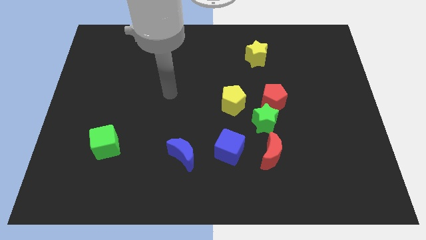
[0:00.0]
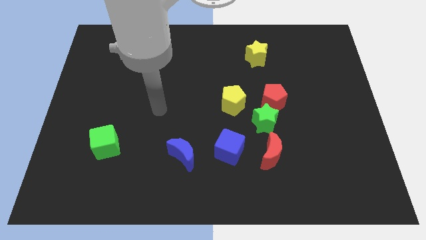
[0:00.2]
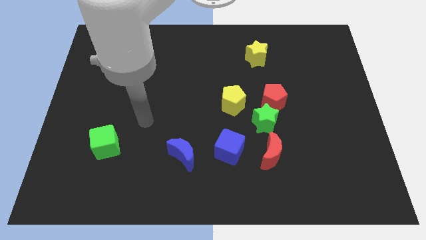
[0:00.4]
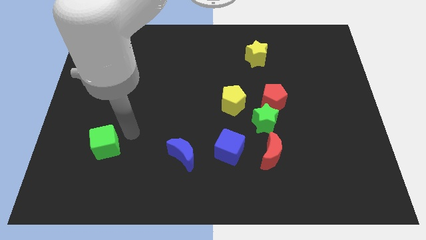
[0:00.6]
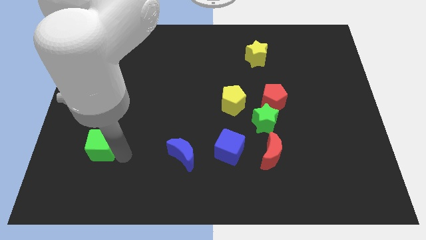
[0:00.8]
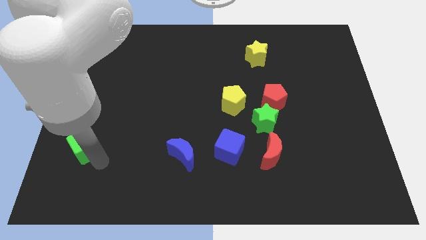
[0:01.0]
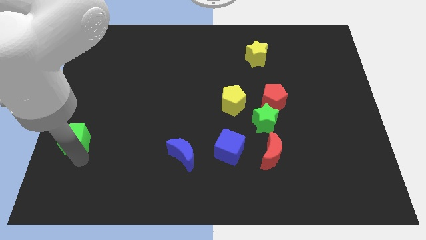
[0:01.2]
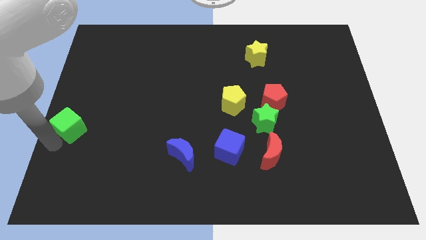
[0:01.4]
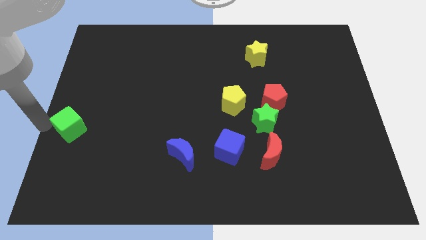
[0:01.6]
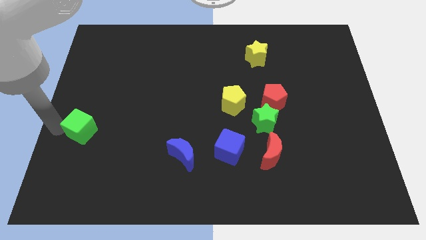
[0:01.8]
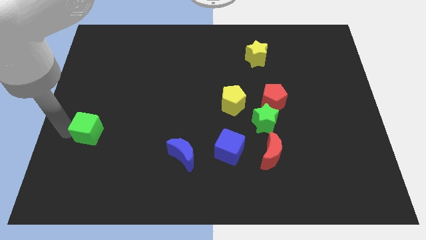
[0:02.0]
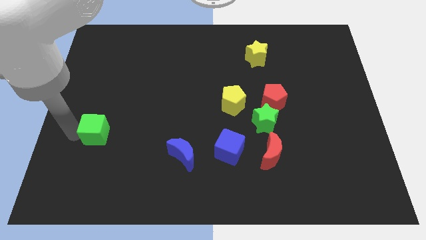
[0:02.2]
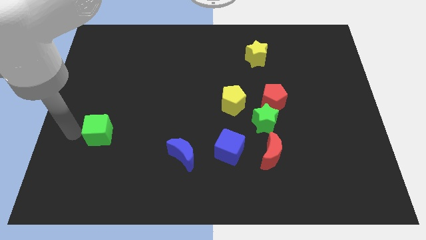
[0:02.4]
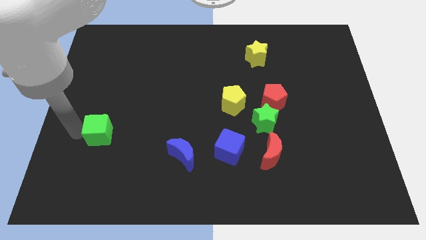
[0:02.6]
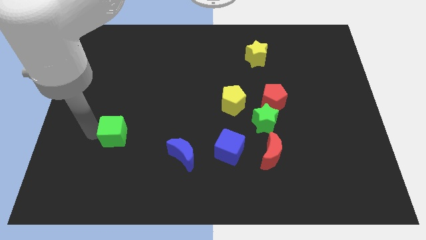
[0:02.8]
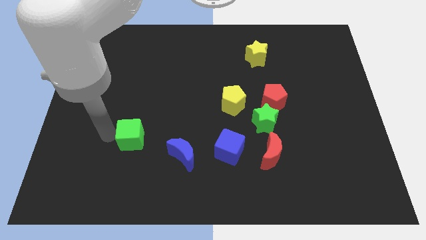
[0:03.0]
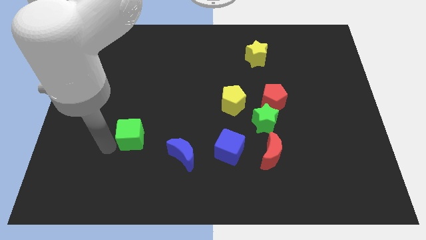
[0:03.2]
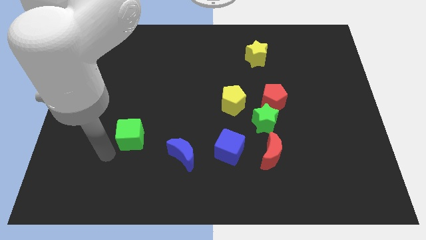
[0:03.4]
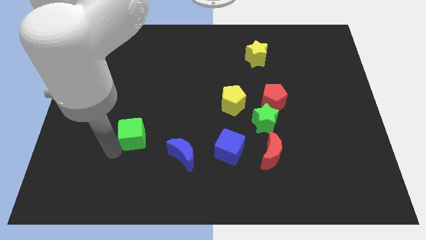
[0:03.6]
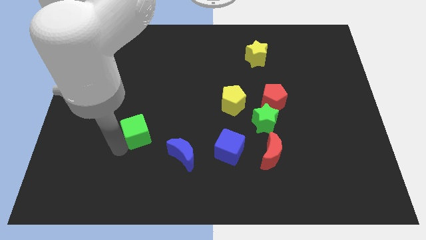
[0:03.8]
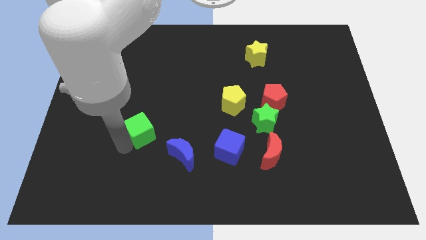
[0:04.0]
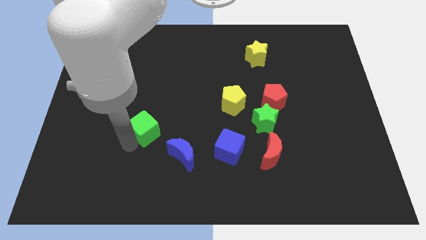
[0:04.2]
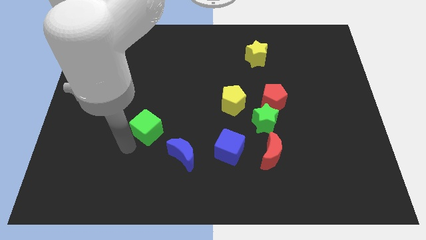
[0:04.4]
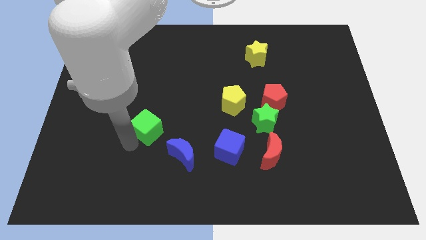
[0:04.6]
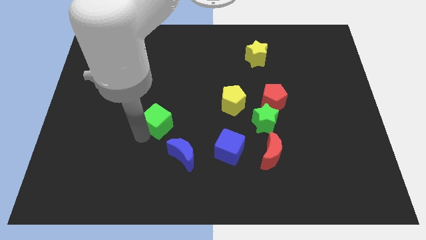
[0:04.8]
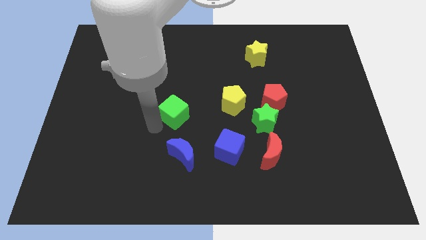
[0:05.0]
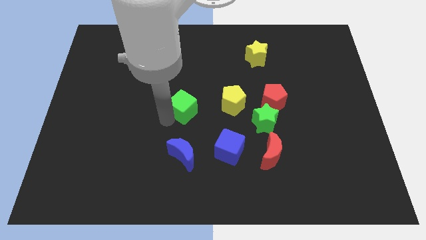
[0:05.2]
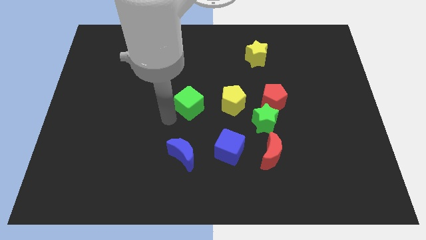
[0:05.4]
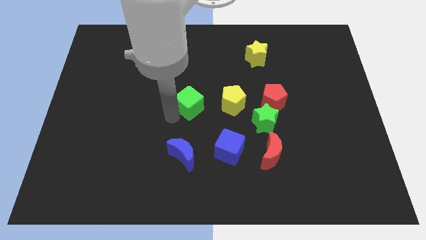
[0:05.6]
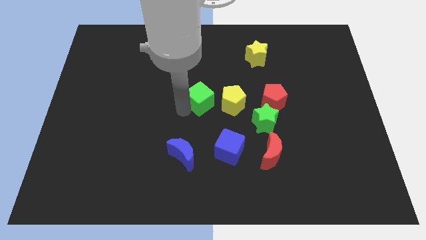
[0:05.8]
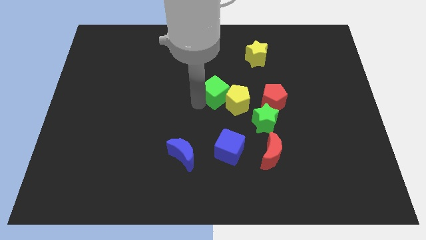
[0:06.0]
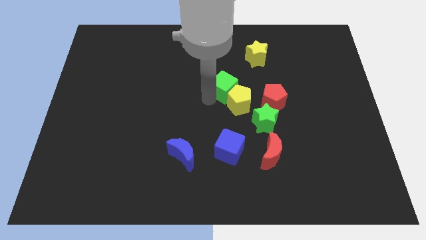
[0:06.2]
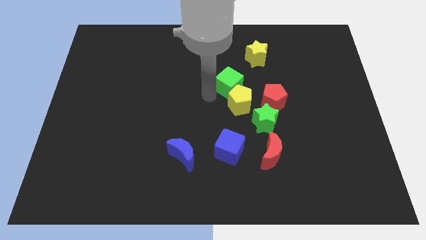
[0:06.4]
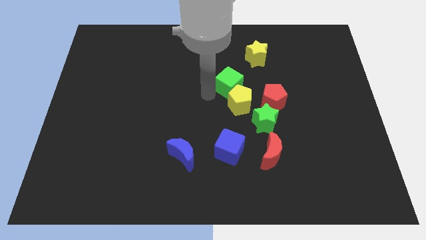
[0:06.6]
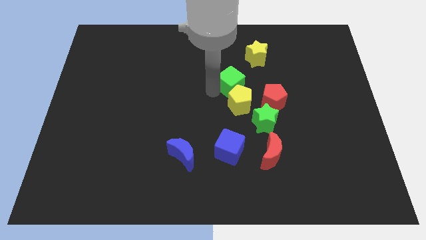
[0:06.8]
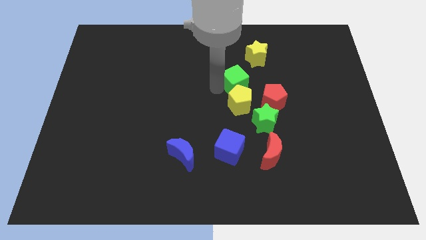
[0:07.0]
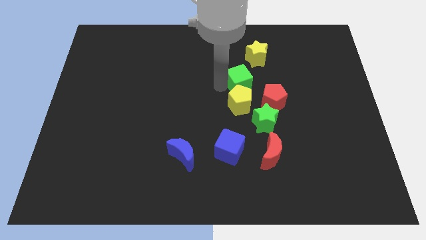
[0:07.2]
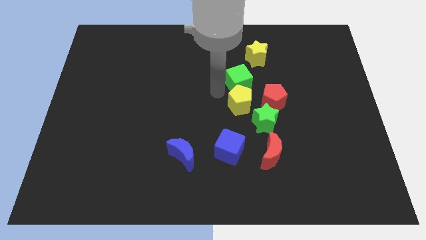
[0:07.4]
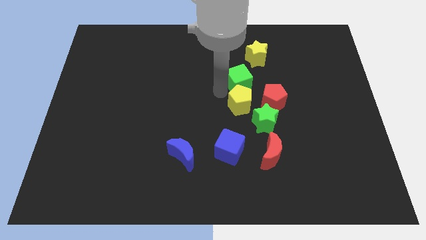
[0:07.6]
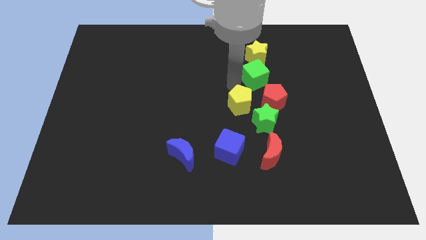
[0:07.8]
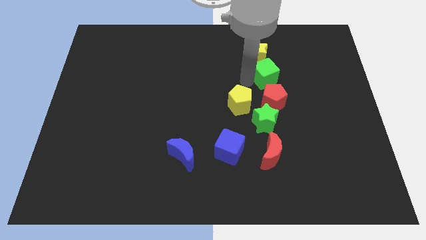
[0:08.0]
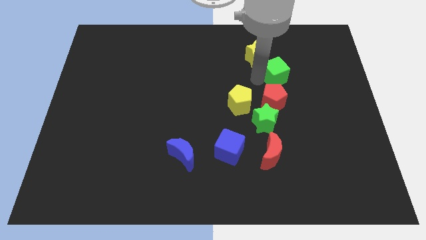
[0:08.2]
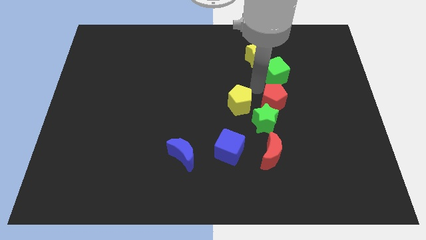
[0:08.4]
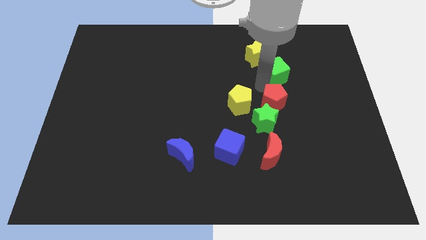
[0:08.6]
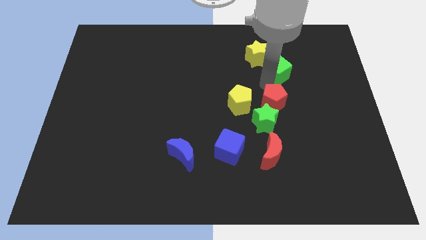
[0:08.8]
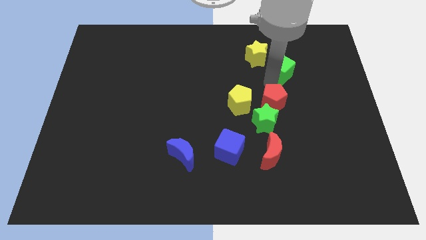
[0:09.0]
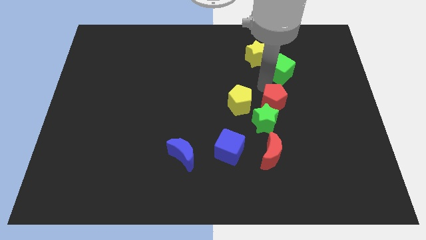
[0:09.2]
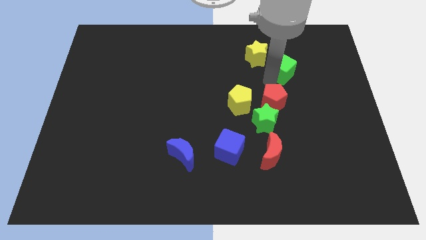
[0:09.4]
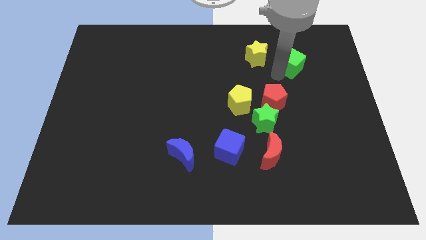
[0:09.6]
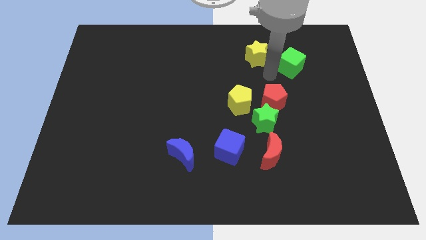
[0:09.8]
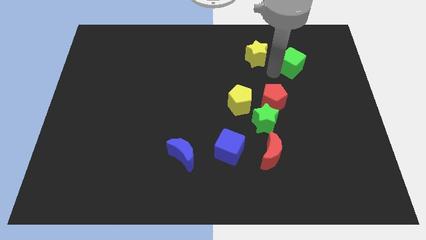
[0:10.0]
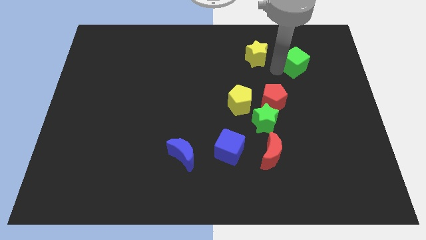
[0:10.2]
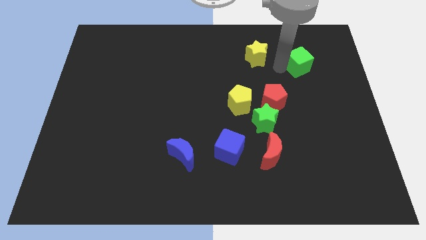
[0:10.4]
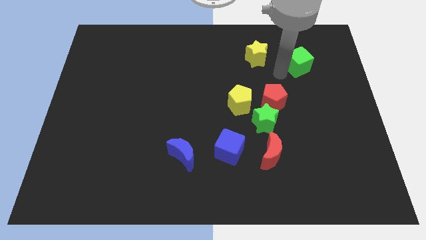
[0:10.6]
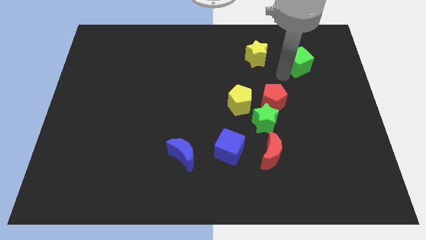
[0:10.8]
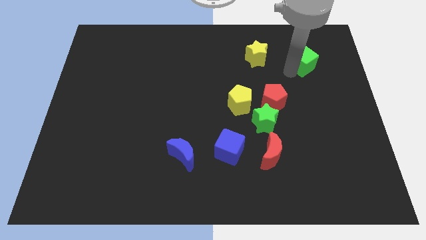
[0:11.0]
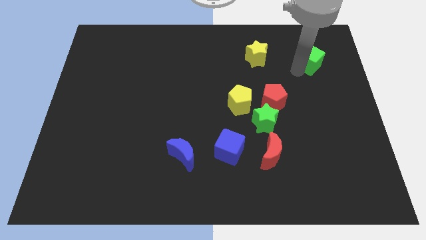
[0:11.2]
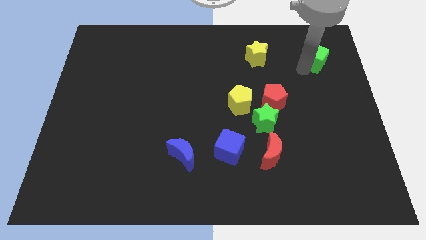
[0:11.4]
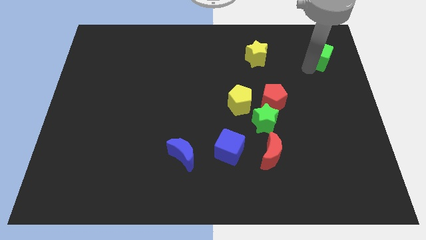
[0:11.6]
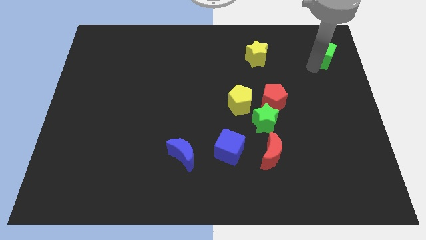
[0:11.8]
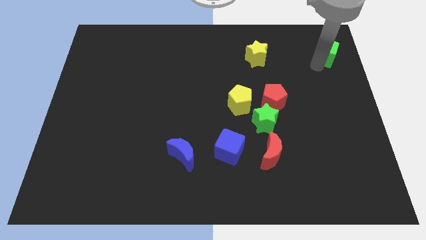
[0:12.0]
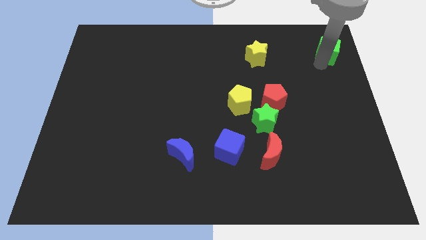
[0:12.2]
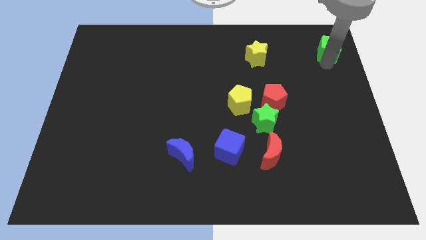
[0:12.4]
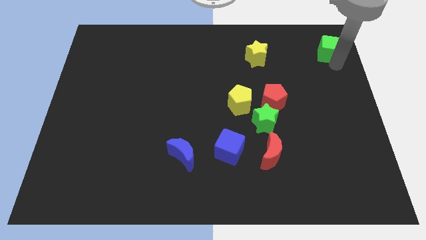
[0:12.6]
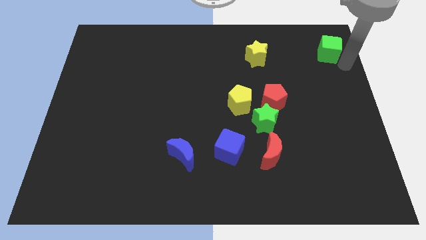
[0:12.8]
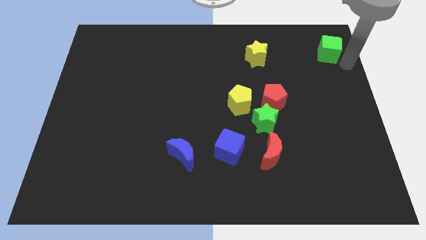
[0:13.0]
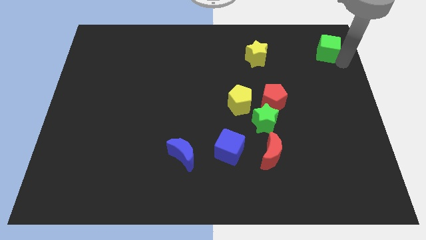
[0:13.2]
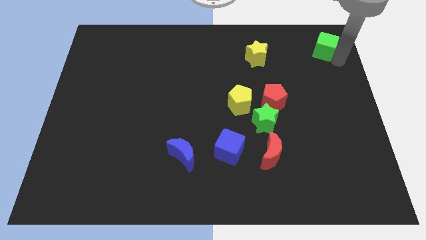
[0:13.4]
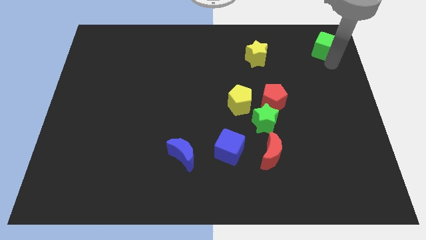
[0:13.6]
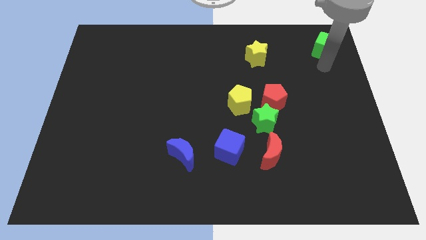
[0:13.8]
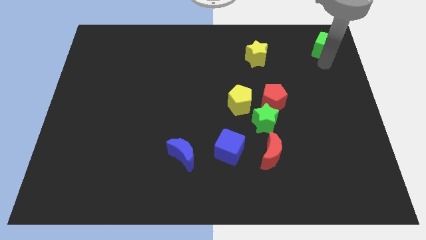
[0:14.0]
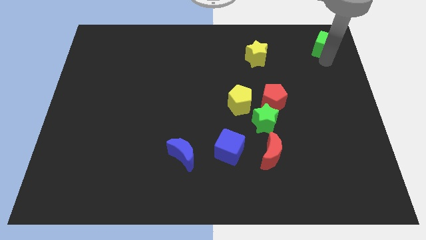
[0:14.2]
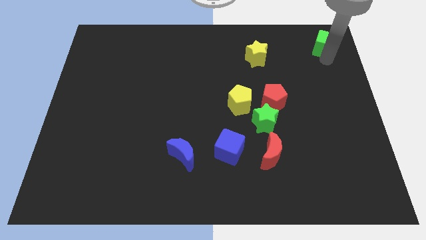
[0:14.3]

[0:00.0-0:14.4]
slide the green cube to the top right corner
